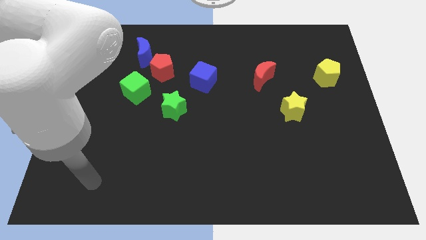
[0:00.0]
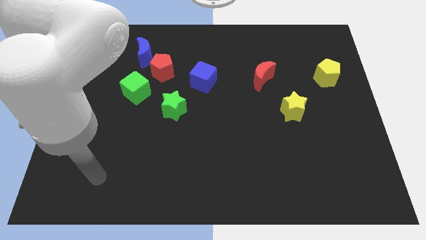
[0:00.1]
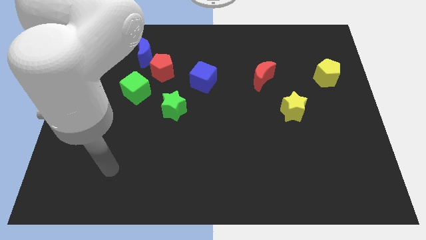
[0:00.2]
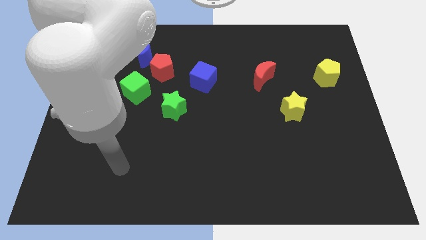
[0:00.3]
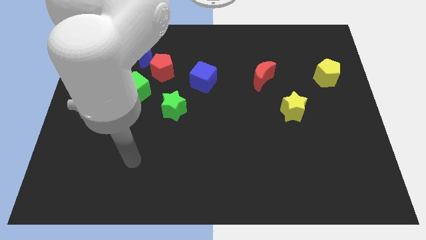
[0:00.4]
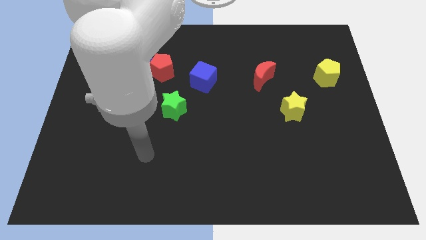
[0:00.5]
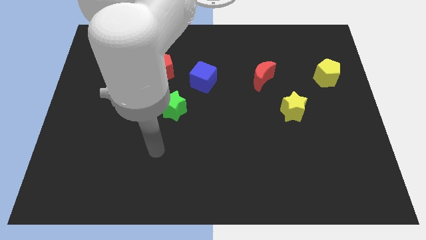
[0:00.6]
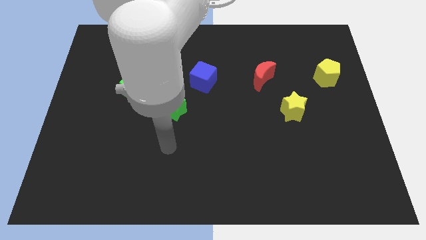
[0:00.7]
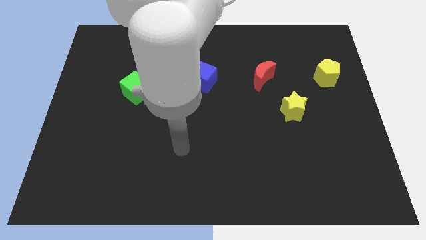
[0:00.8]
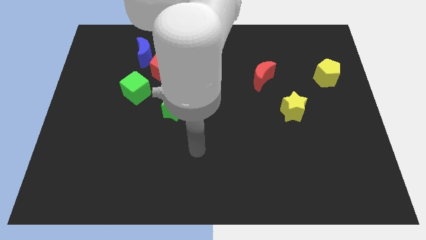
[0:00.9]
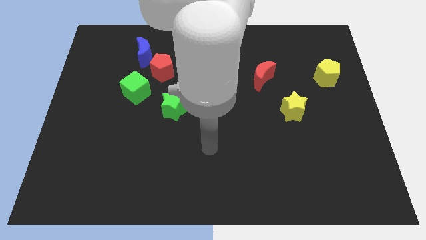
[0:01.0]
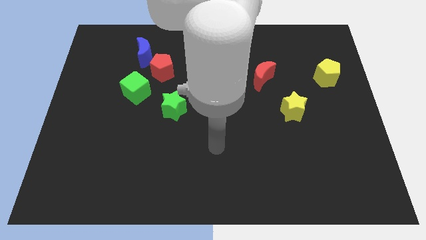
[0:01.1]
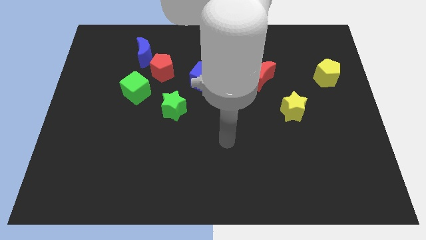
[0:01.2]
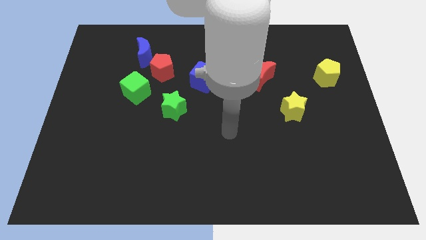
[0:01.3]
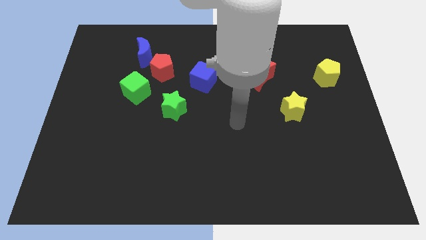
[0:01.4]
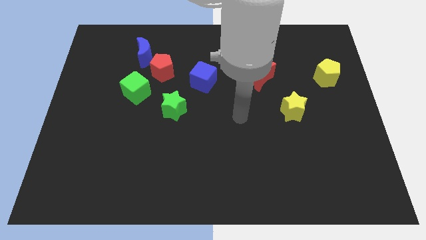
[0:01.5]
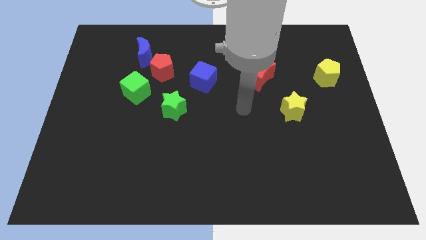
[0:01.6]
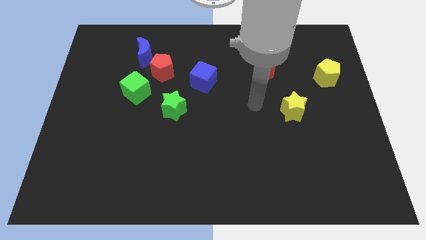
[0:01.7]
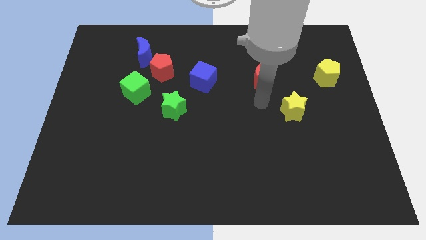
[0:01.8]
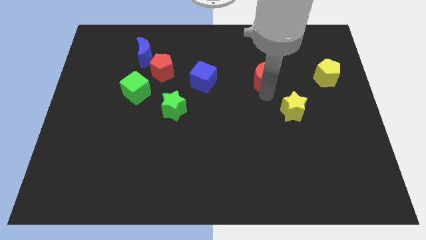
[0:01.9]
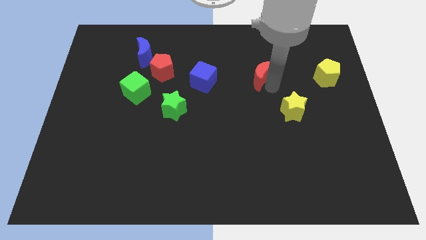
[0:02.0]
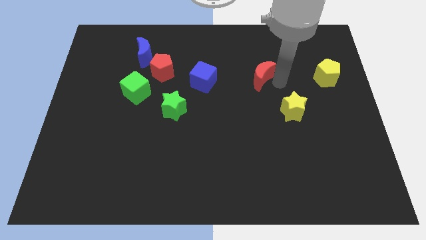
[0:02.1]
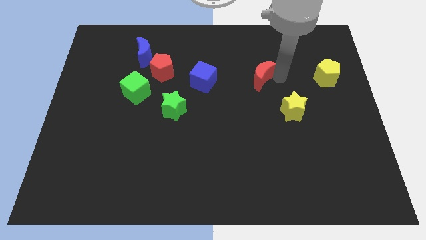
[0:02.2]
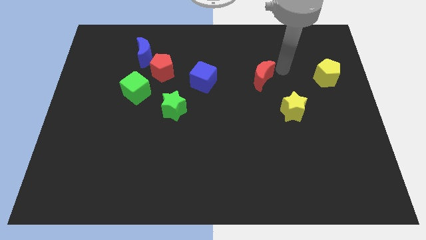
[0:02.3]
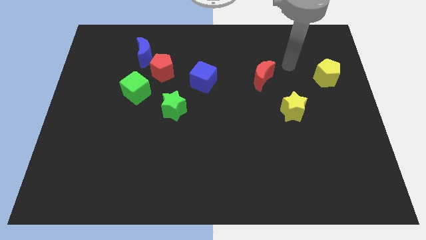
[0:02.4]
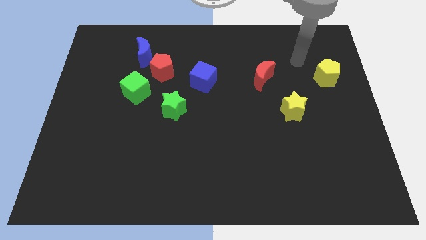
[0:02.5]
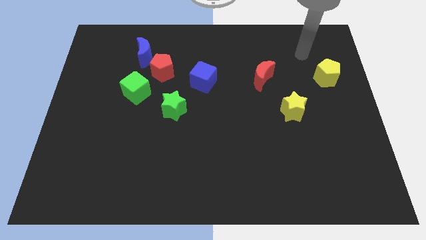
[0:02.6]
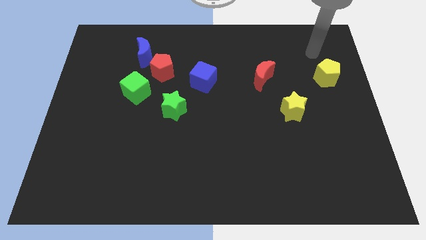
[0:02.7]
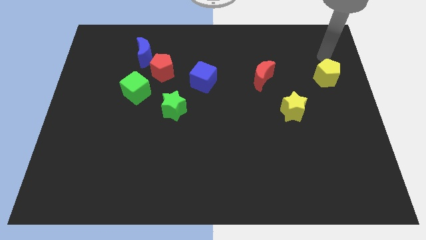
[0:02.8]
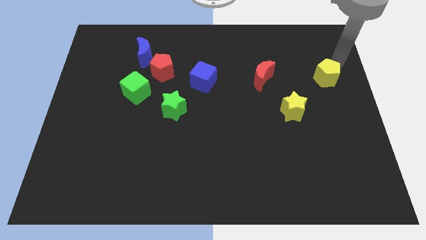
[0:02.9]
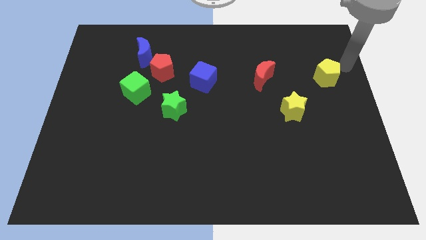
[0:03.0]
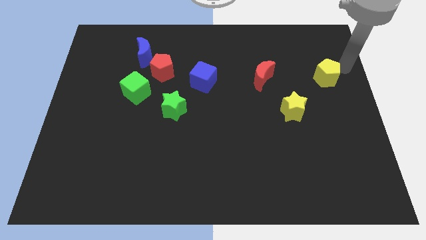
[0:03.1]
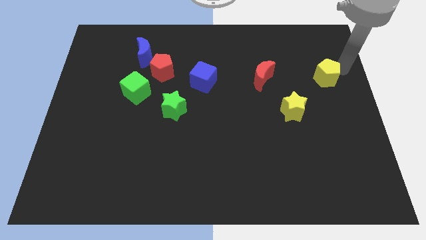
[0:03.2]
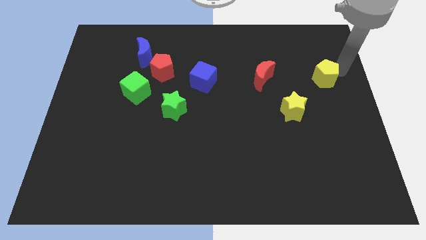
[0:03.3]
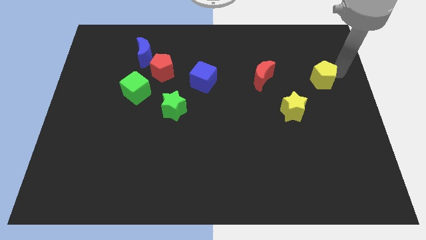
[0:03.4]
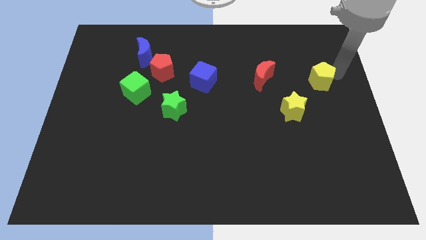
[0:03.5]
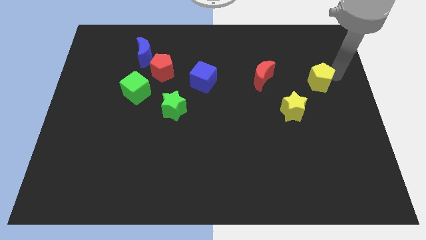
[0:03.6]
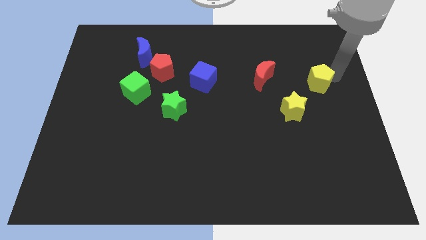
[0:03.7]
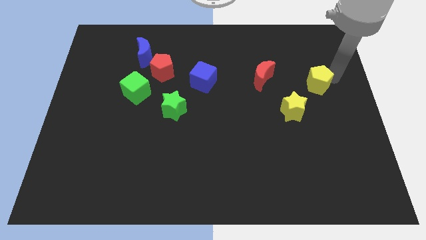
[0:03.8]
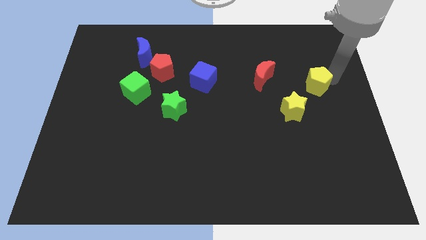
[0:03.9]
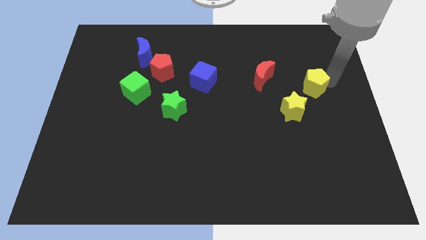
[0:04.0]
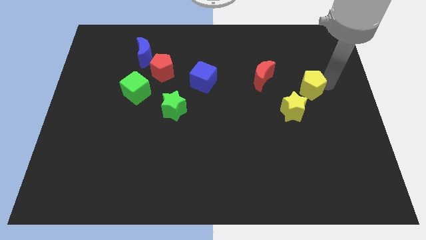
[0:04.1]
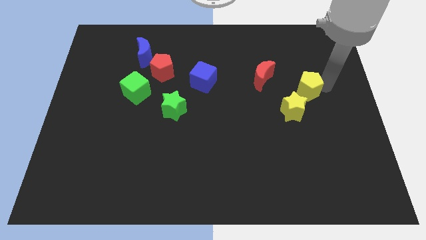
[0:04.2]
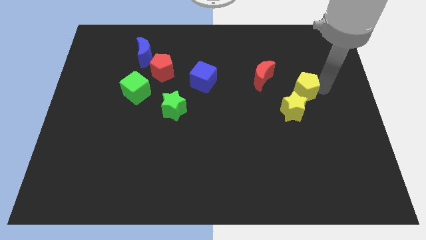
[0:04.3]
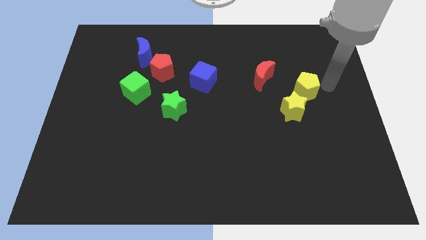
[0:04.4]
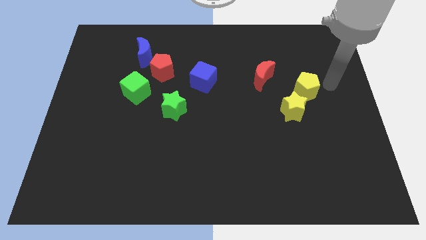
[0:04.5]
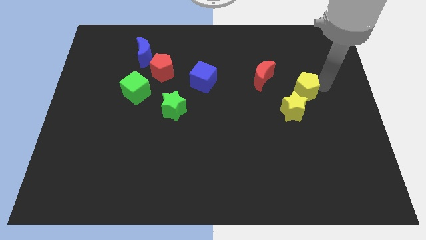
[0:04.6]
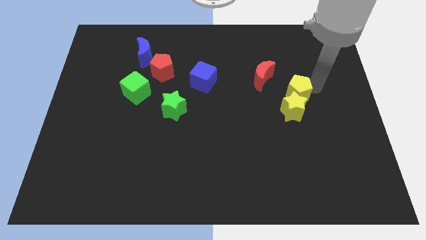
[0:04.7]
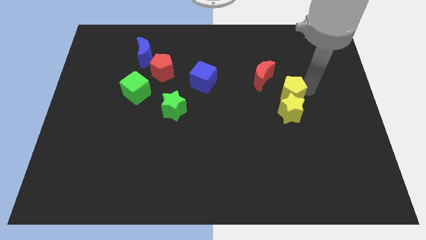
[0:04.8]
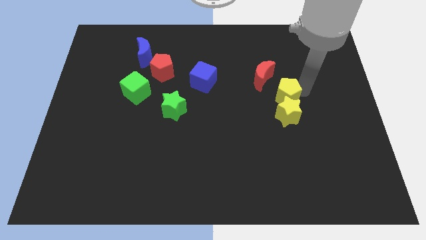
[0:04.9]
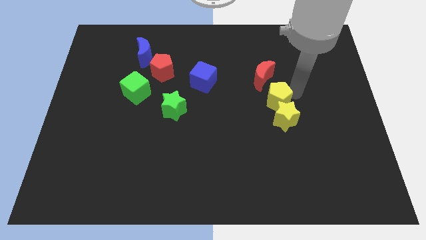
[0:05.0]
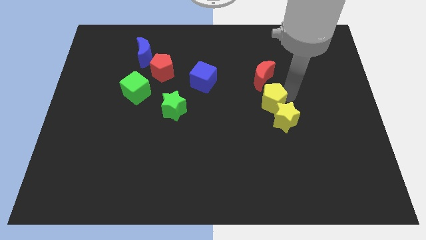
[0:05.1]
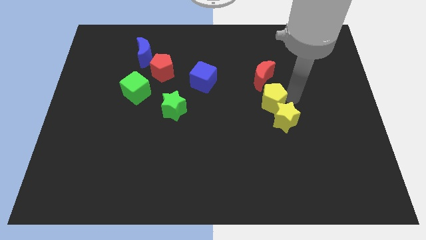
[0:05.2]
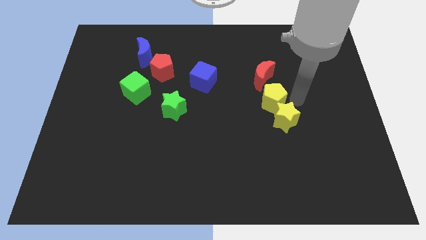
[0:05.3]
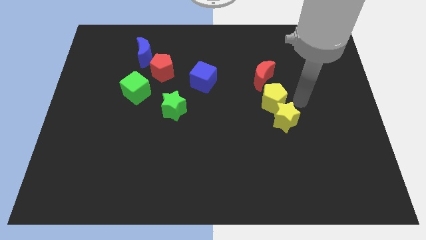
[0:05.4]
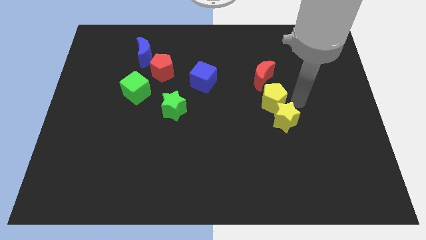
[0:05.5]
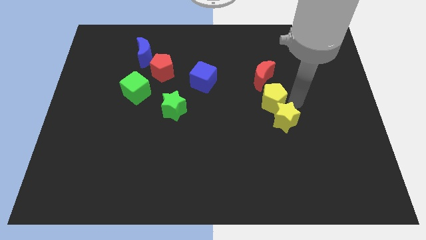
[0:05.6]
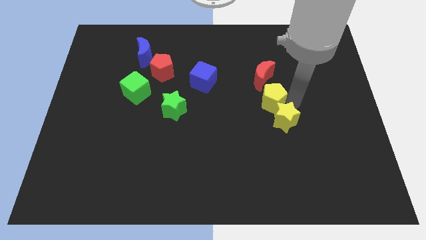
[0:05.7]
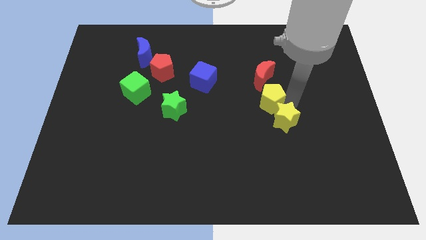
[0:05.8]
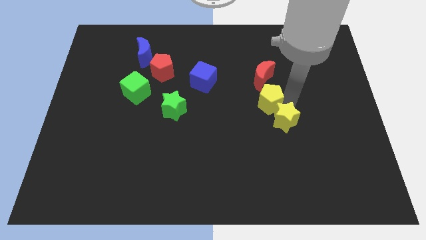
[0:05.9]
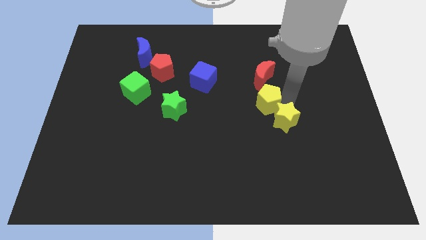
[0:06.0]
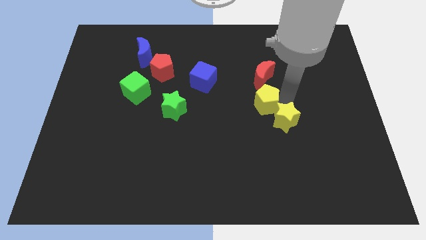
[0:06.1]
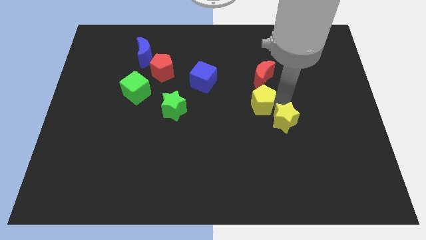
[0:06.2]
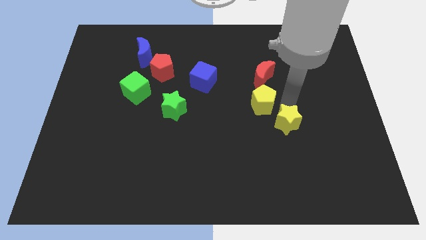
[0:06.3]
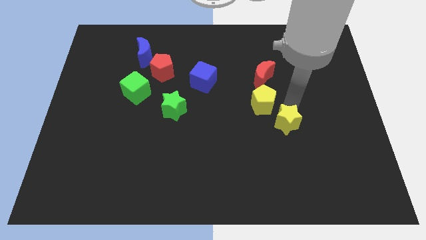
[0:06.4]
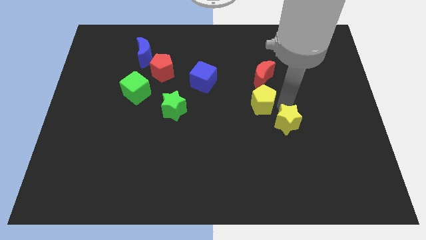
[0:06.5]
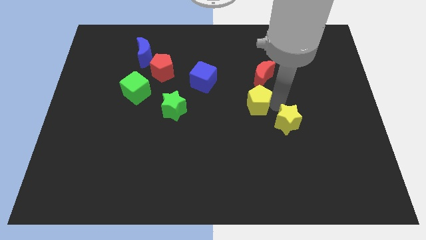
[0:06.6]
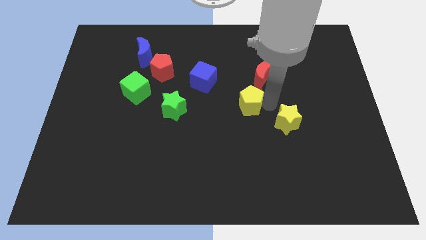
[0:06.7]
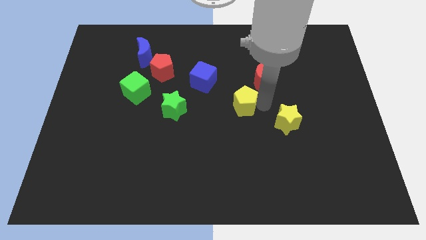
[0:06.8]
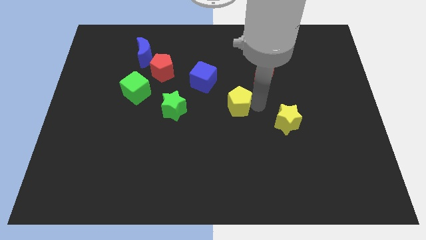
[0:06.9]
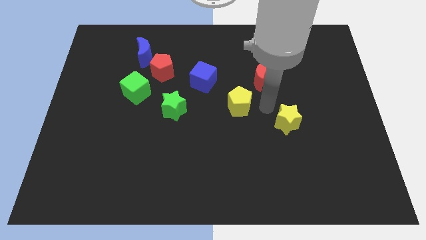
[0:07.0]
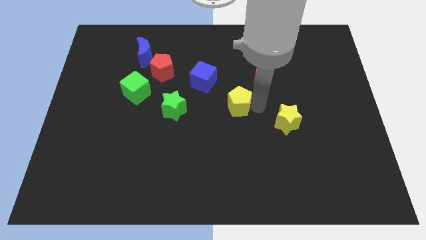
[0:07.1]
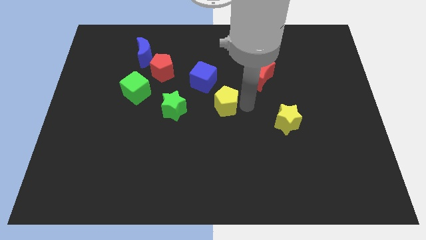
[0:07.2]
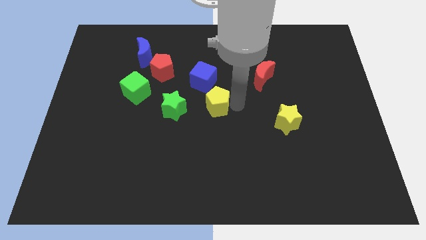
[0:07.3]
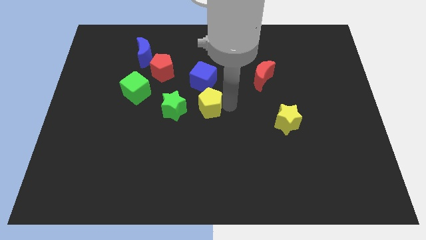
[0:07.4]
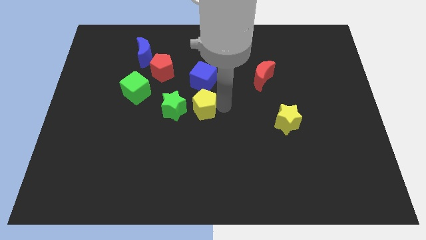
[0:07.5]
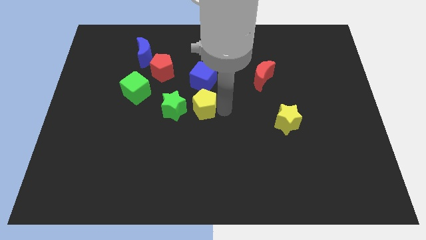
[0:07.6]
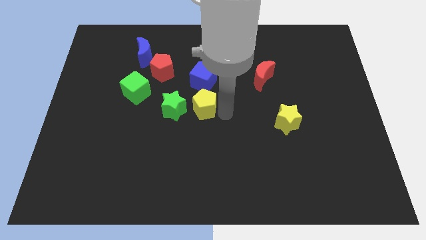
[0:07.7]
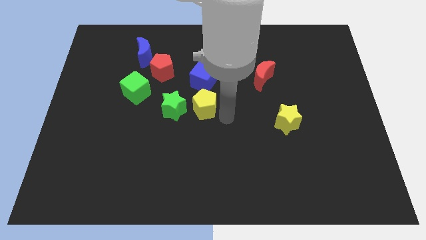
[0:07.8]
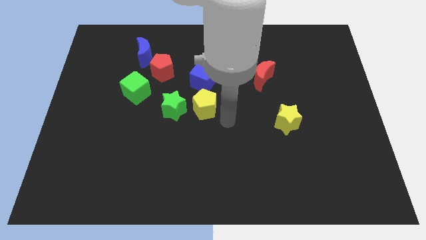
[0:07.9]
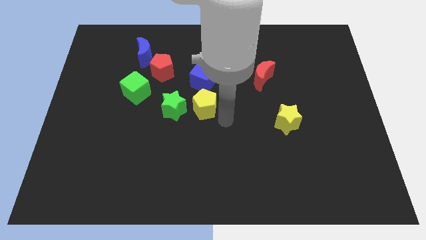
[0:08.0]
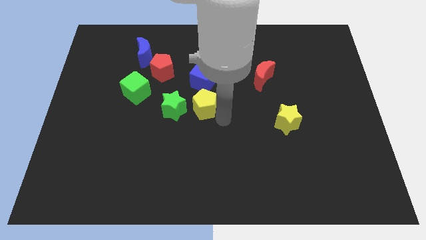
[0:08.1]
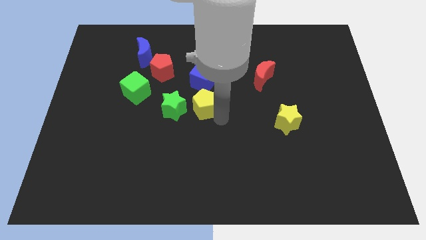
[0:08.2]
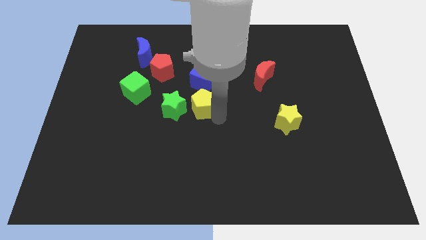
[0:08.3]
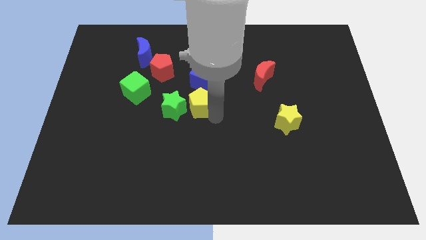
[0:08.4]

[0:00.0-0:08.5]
move the yellow pentagon close to the green star
